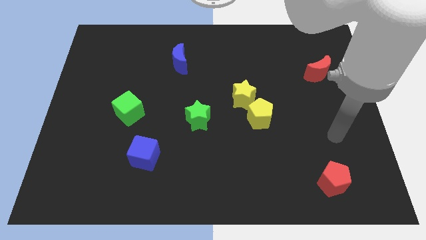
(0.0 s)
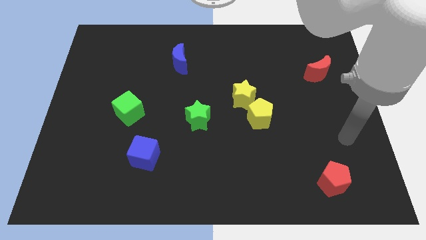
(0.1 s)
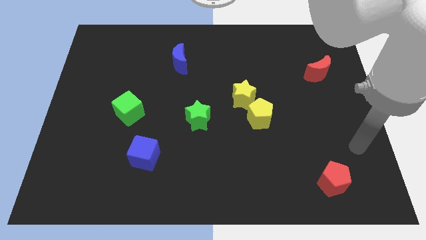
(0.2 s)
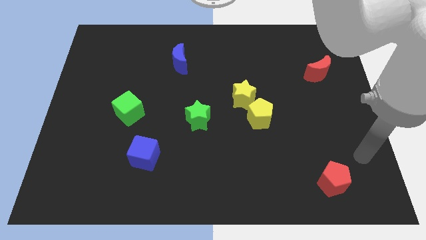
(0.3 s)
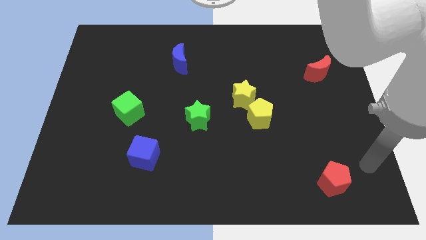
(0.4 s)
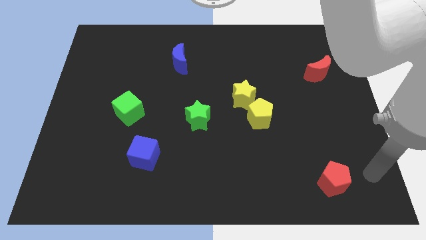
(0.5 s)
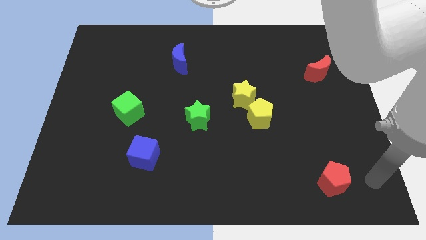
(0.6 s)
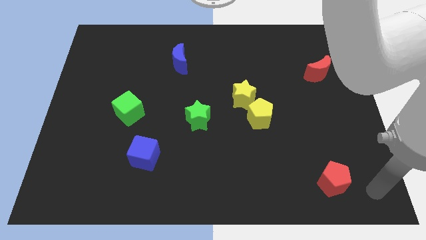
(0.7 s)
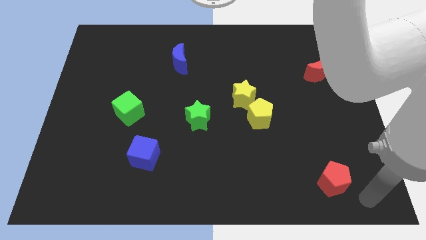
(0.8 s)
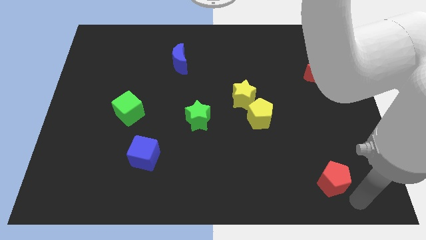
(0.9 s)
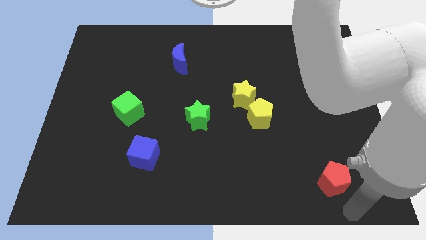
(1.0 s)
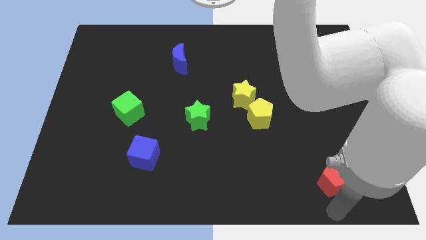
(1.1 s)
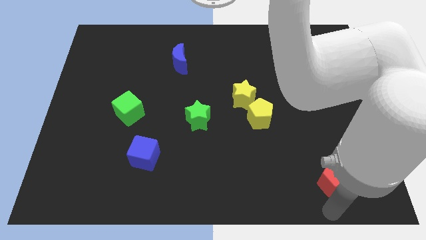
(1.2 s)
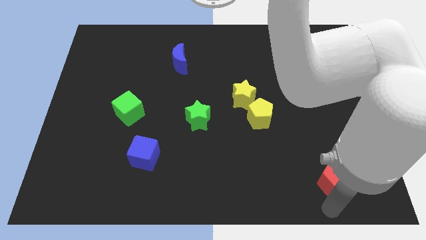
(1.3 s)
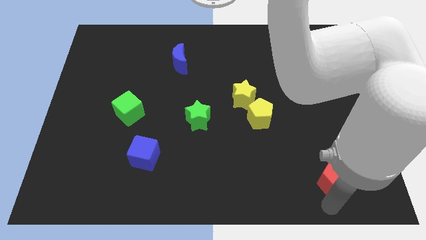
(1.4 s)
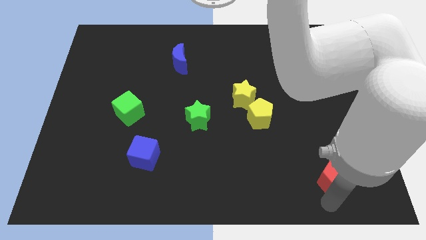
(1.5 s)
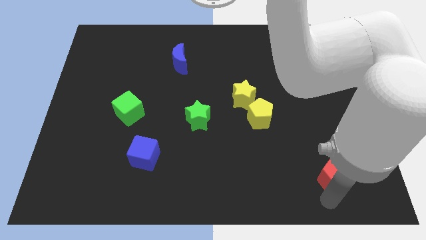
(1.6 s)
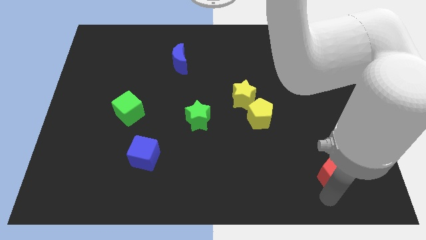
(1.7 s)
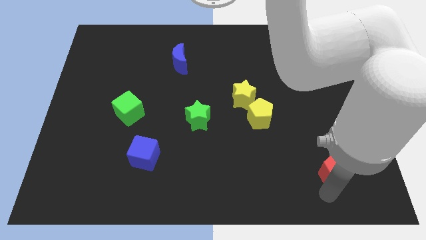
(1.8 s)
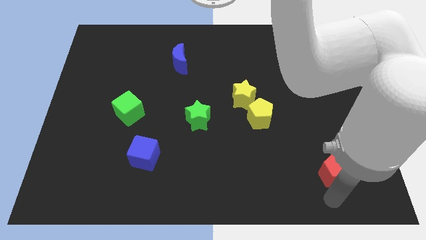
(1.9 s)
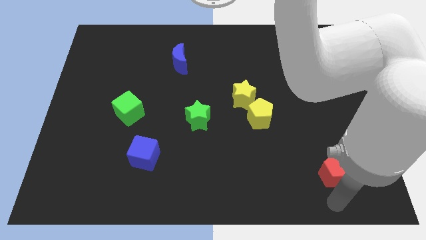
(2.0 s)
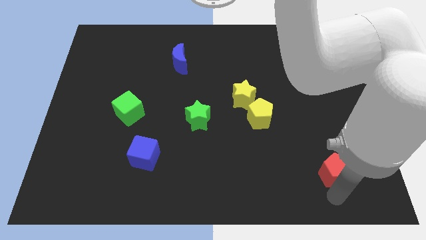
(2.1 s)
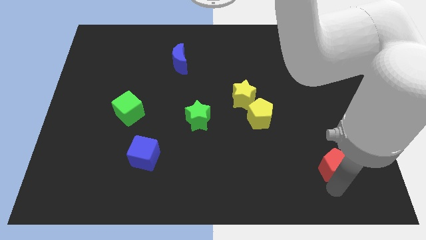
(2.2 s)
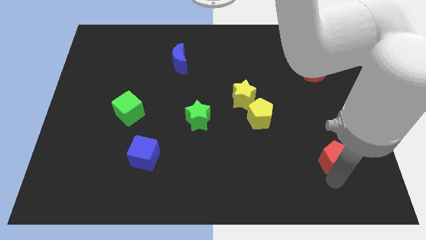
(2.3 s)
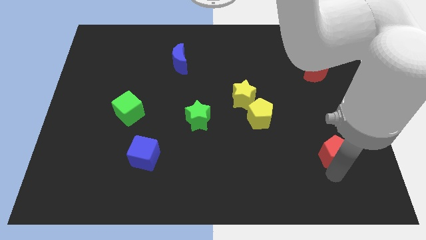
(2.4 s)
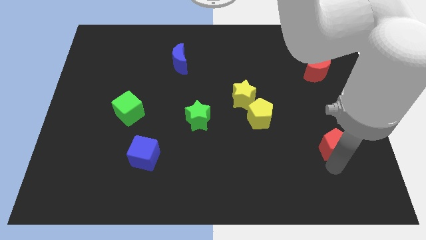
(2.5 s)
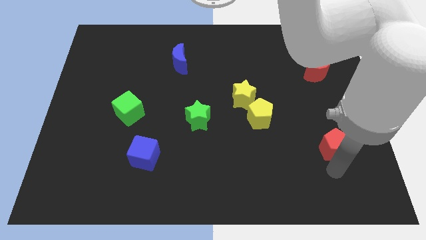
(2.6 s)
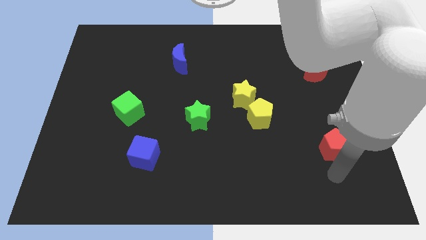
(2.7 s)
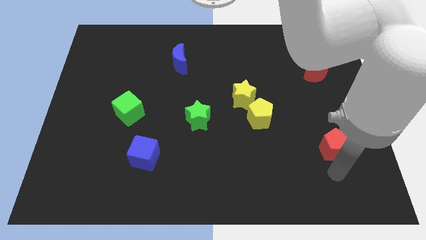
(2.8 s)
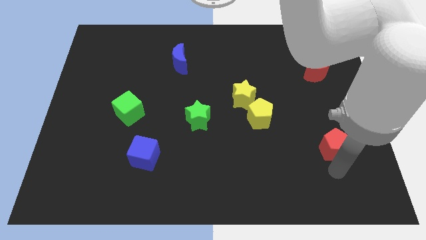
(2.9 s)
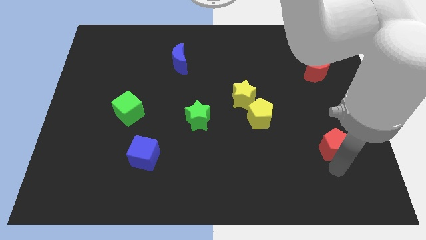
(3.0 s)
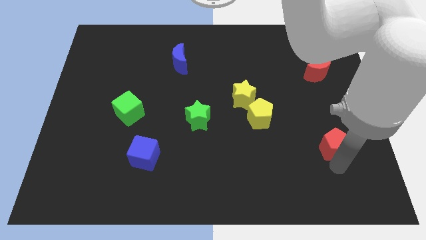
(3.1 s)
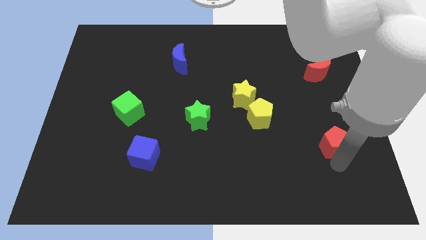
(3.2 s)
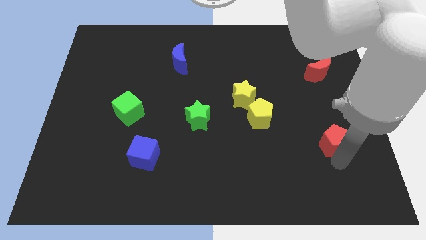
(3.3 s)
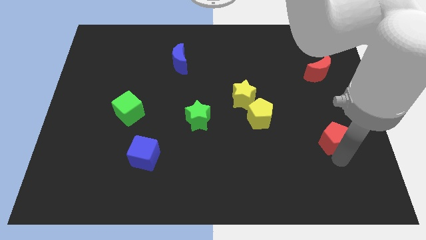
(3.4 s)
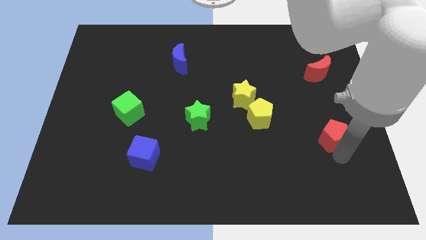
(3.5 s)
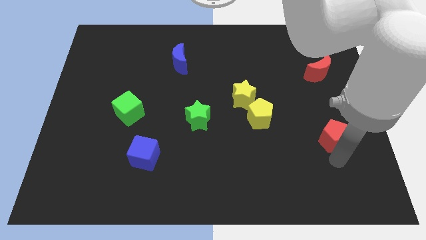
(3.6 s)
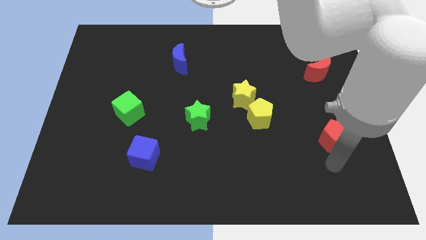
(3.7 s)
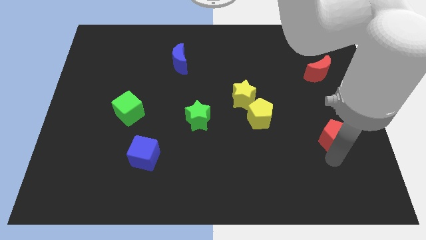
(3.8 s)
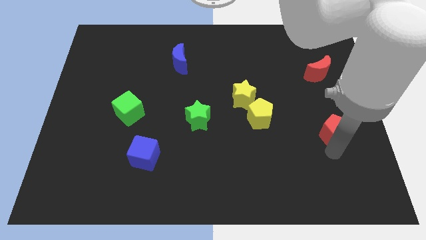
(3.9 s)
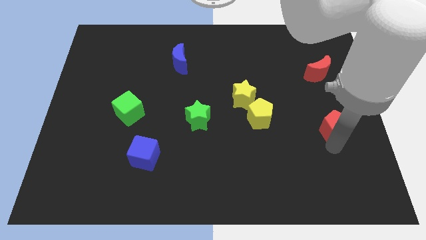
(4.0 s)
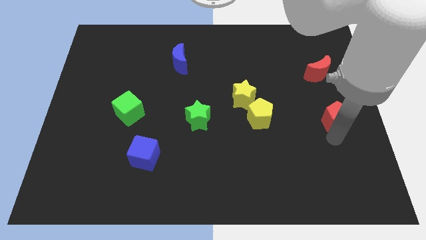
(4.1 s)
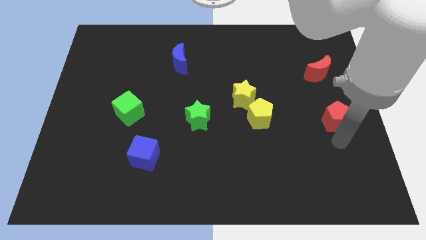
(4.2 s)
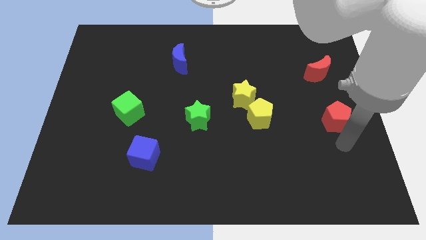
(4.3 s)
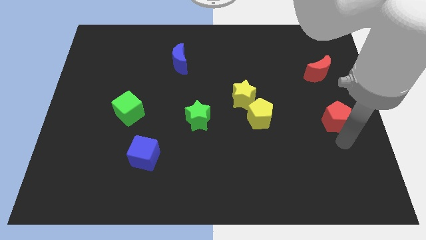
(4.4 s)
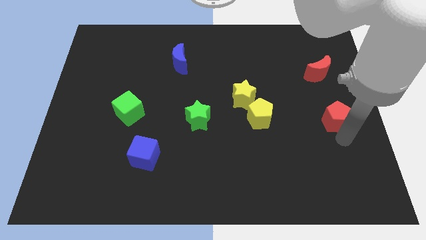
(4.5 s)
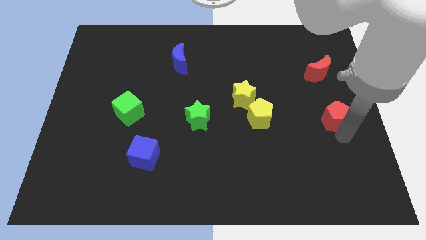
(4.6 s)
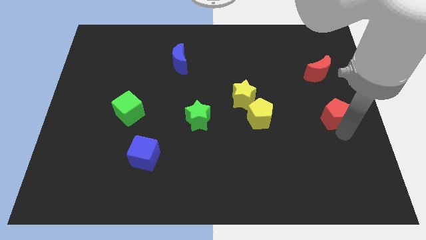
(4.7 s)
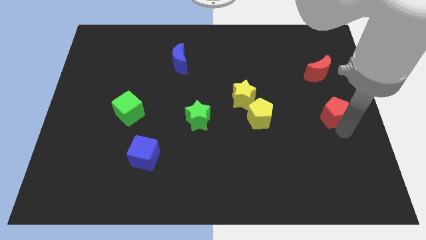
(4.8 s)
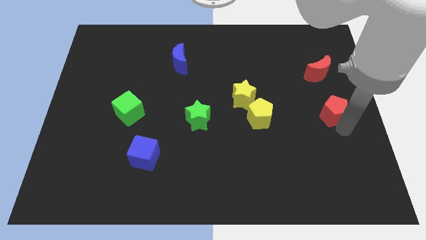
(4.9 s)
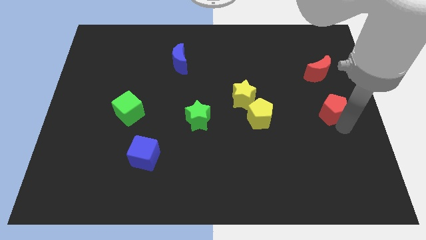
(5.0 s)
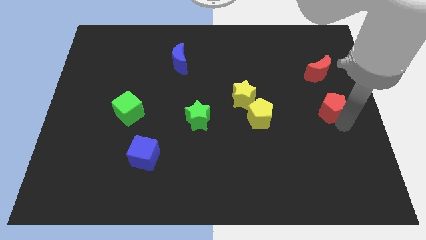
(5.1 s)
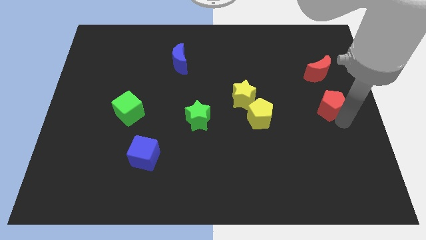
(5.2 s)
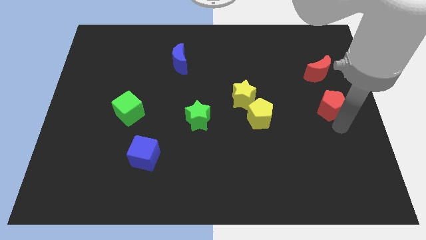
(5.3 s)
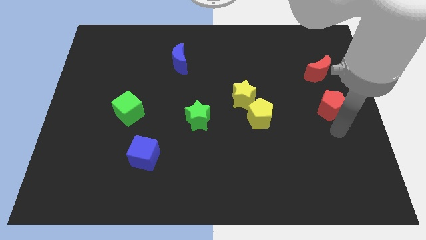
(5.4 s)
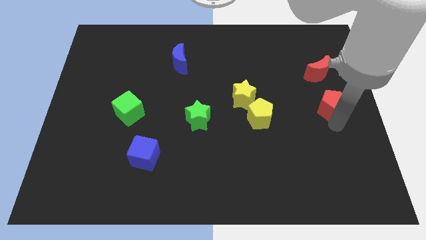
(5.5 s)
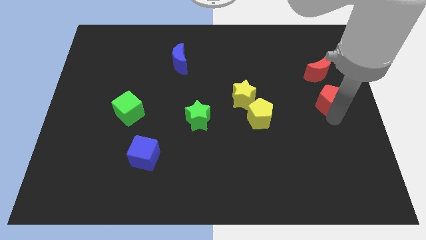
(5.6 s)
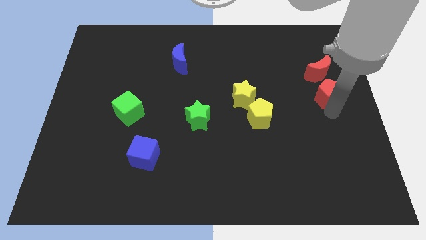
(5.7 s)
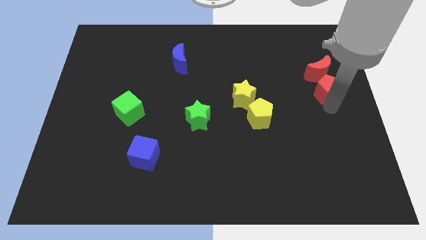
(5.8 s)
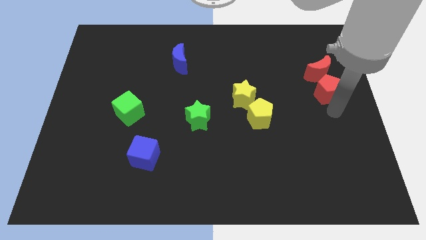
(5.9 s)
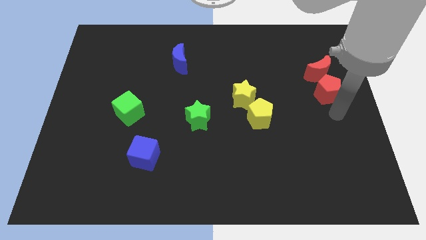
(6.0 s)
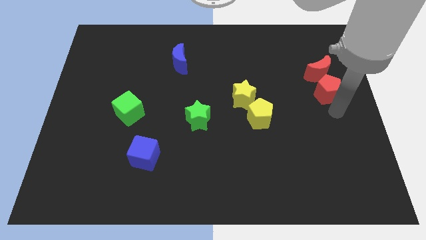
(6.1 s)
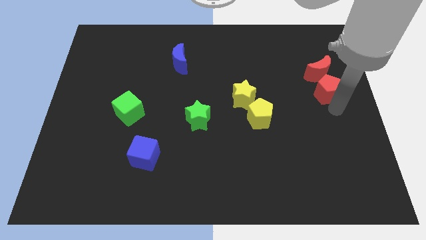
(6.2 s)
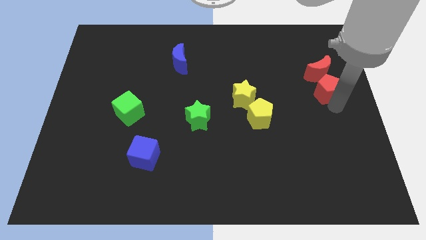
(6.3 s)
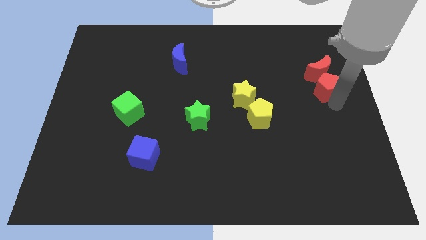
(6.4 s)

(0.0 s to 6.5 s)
push the red pentagon close to the red moon

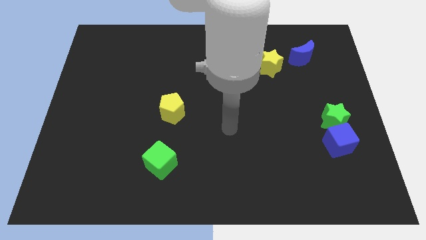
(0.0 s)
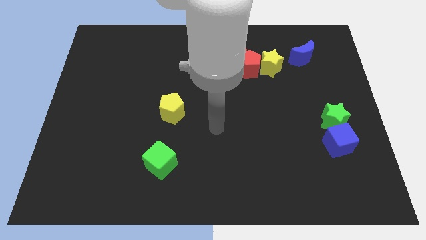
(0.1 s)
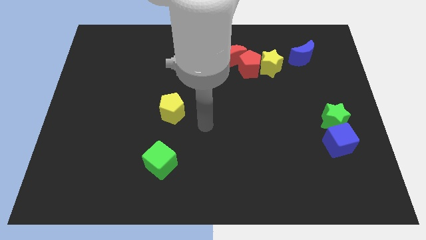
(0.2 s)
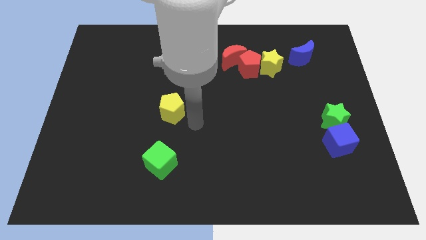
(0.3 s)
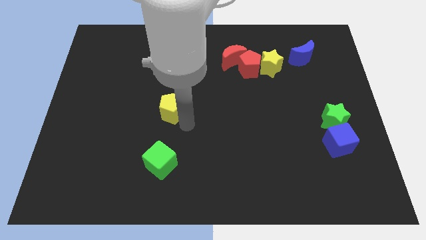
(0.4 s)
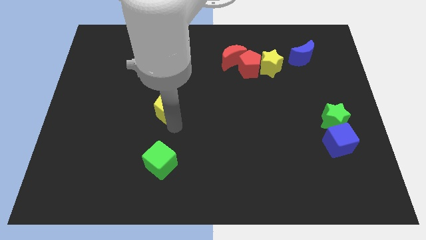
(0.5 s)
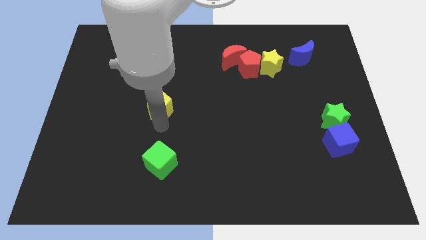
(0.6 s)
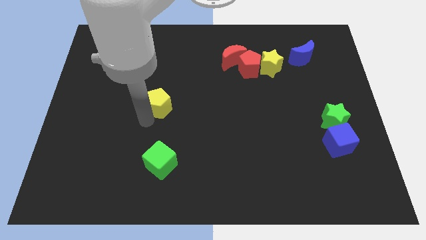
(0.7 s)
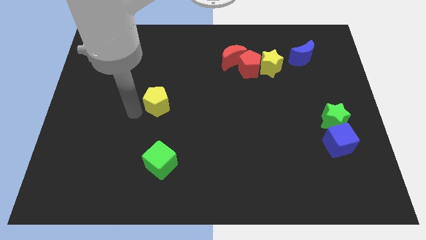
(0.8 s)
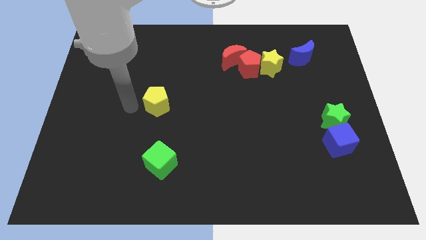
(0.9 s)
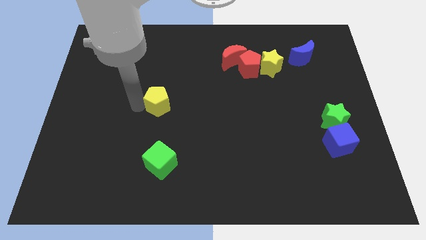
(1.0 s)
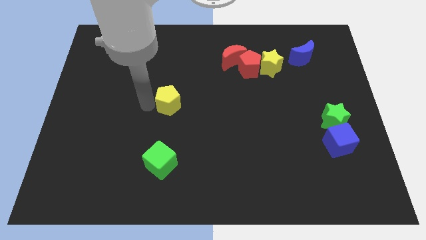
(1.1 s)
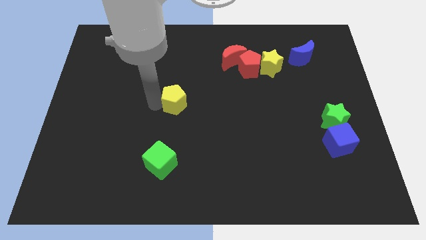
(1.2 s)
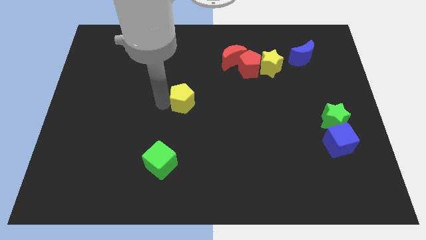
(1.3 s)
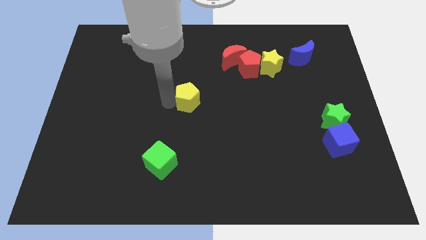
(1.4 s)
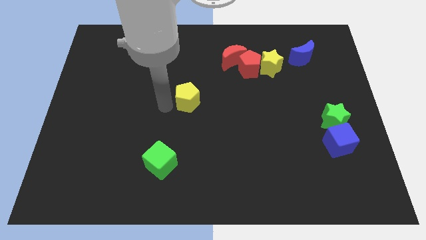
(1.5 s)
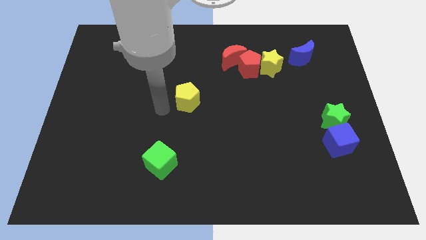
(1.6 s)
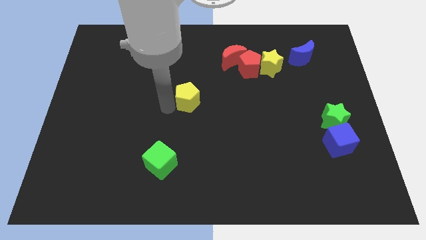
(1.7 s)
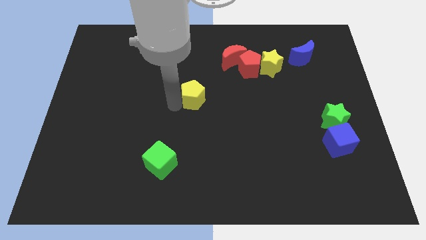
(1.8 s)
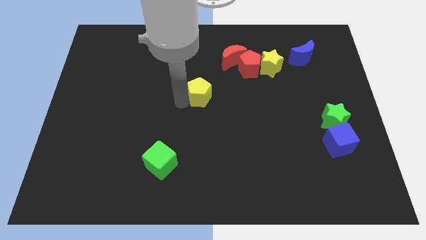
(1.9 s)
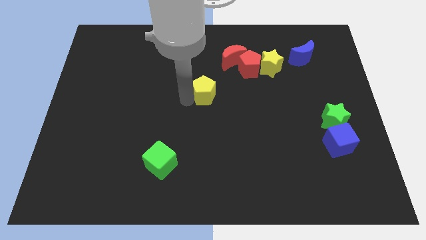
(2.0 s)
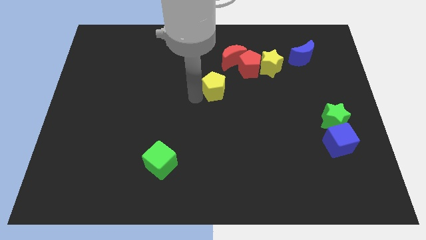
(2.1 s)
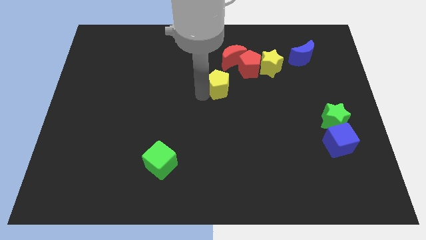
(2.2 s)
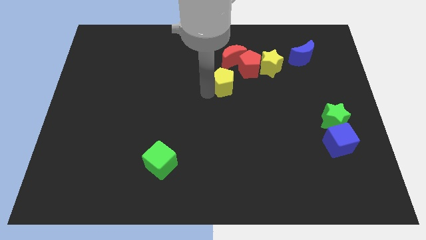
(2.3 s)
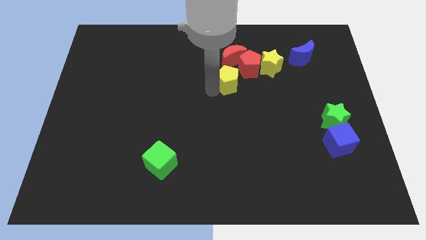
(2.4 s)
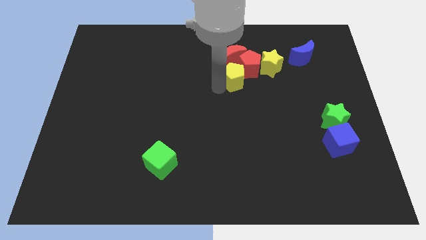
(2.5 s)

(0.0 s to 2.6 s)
move the yellow pentagon close to the red pentagon
